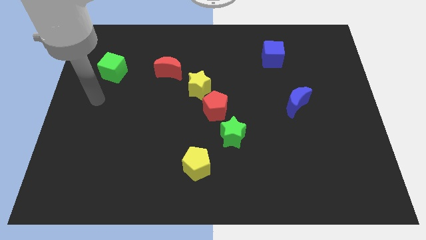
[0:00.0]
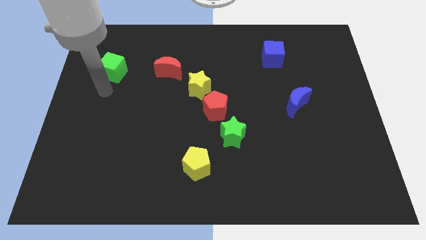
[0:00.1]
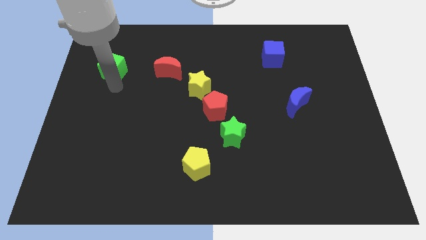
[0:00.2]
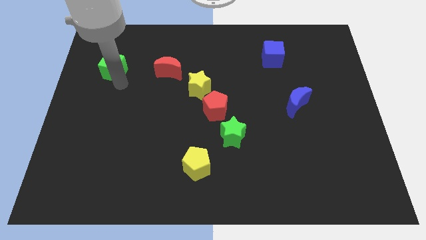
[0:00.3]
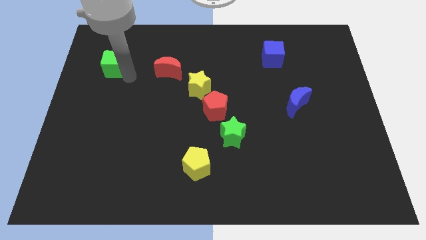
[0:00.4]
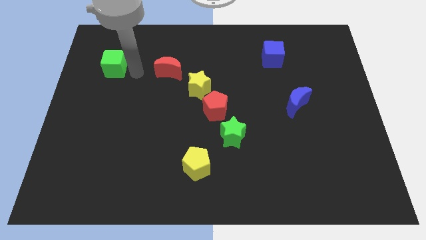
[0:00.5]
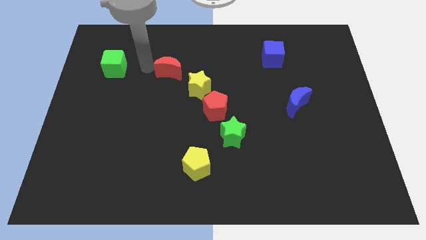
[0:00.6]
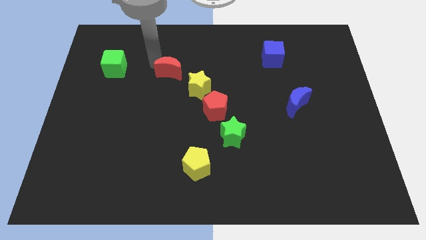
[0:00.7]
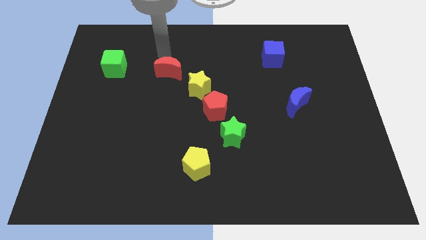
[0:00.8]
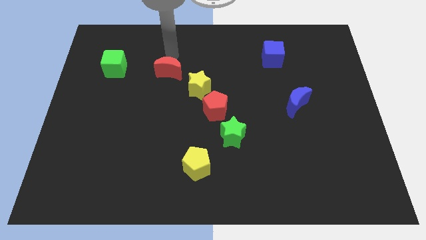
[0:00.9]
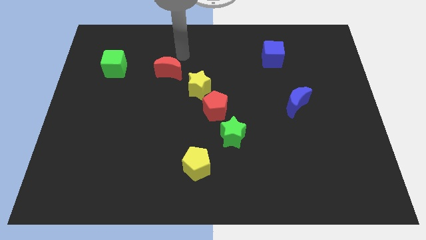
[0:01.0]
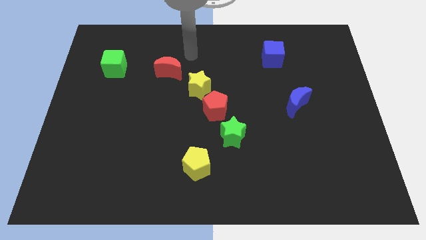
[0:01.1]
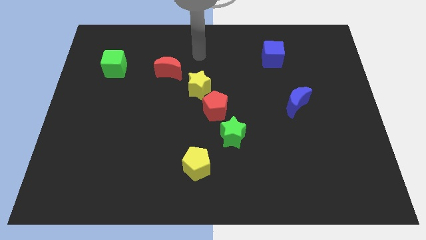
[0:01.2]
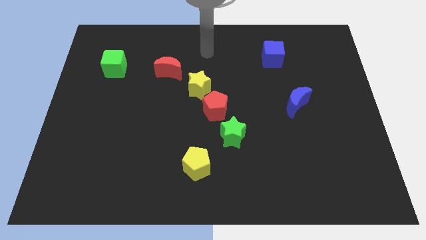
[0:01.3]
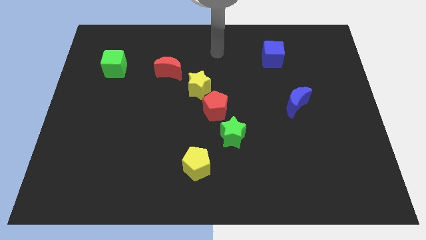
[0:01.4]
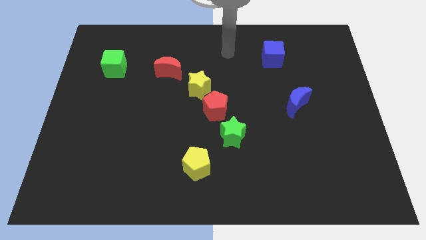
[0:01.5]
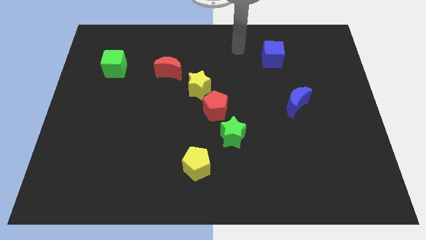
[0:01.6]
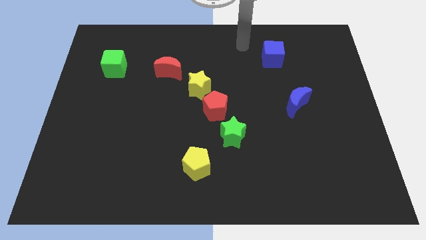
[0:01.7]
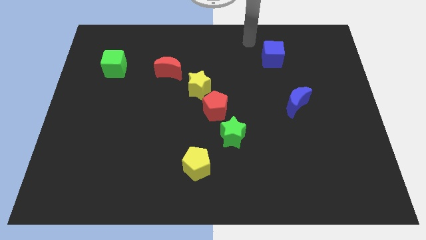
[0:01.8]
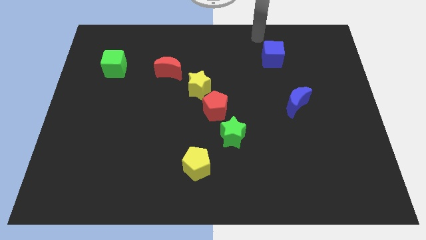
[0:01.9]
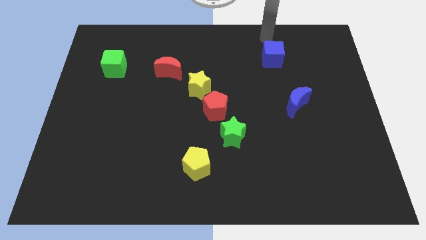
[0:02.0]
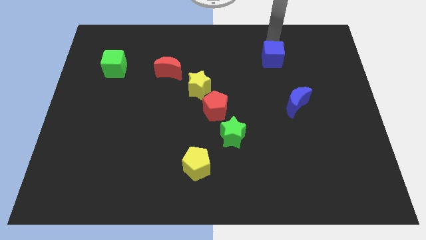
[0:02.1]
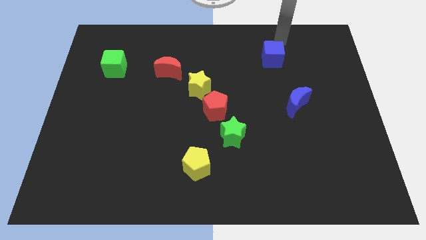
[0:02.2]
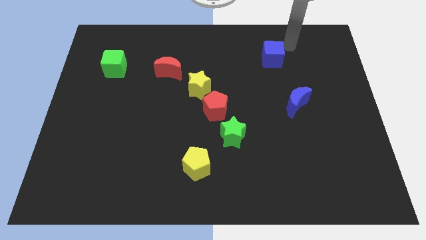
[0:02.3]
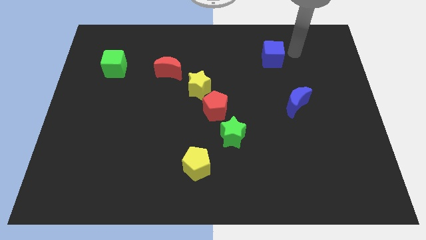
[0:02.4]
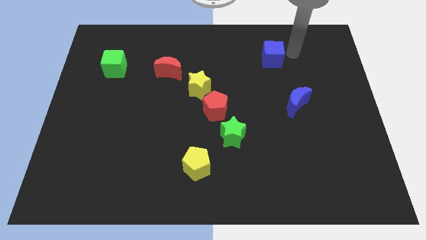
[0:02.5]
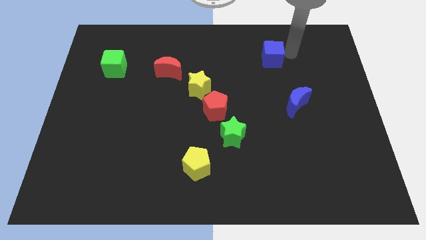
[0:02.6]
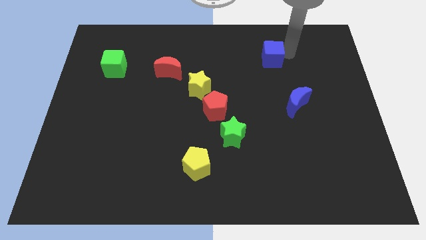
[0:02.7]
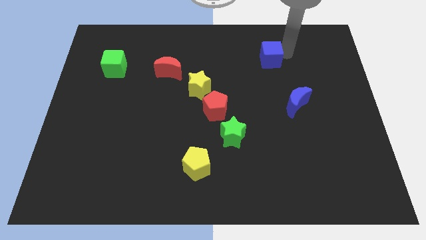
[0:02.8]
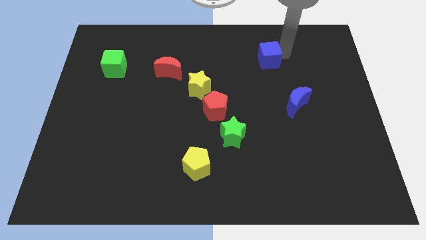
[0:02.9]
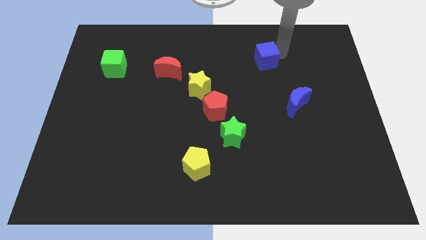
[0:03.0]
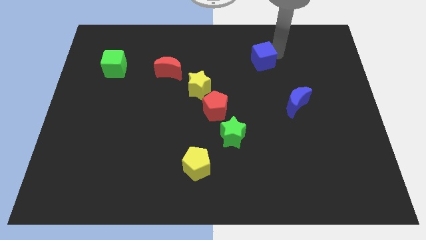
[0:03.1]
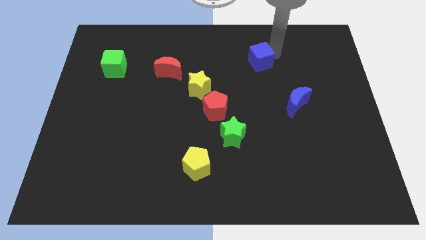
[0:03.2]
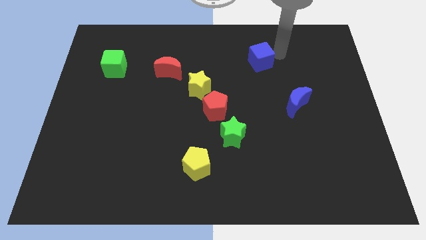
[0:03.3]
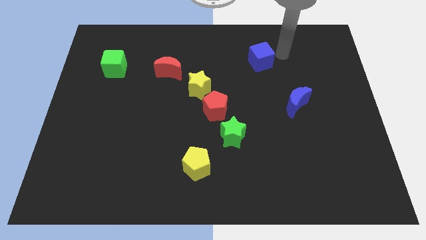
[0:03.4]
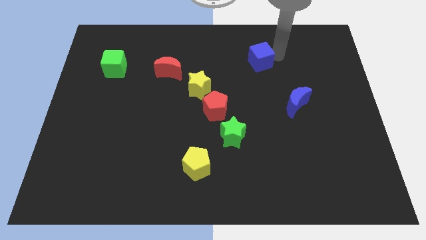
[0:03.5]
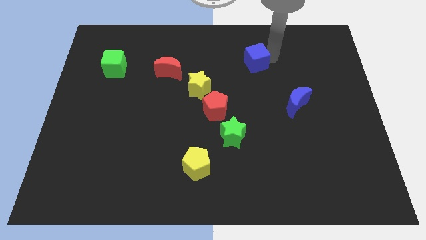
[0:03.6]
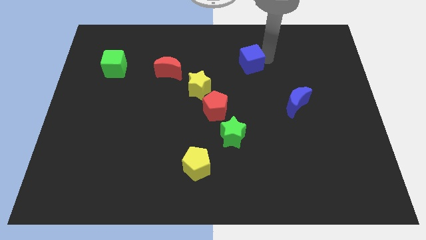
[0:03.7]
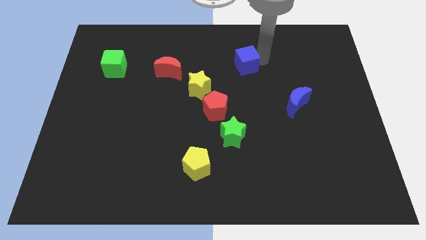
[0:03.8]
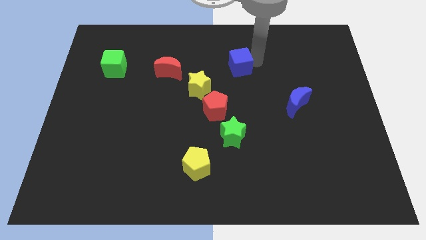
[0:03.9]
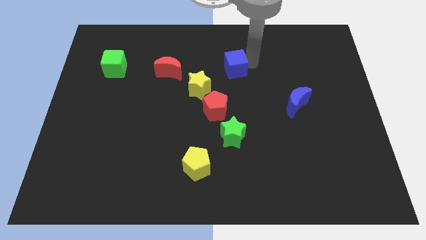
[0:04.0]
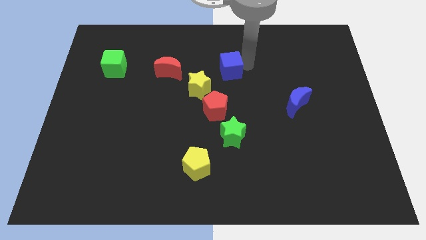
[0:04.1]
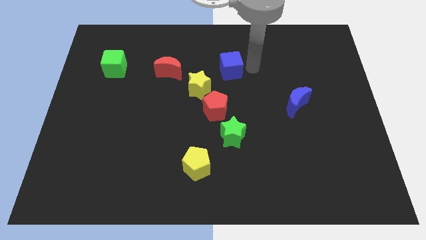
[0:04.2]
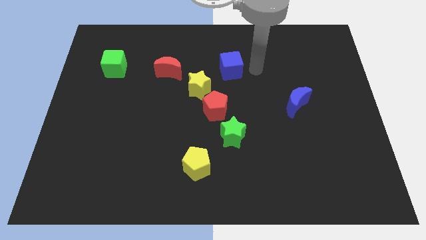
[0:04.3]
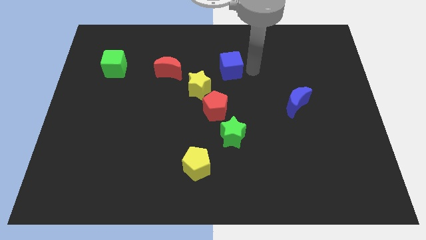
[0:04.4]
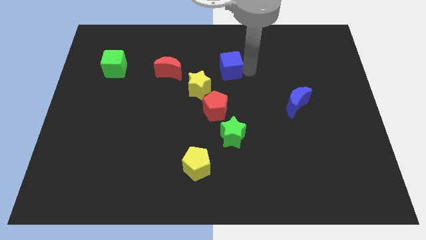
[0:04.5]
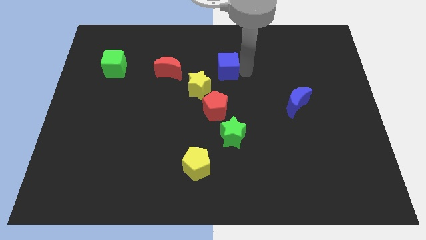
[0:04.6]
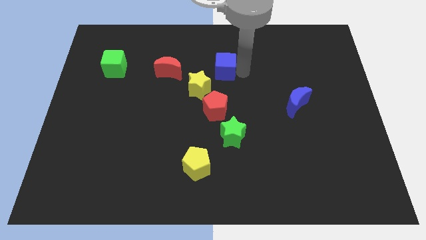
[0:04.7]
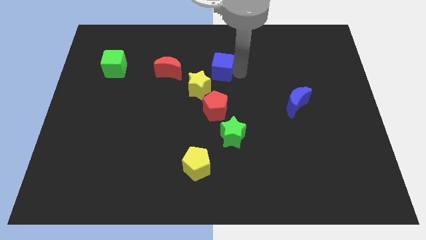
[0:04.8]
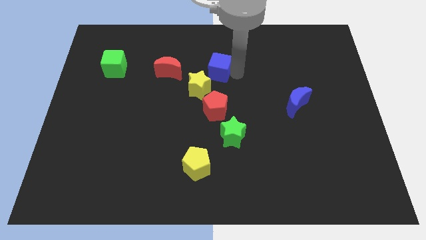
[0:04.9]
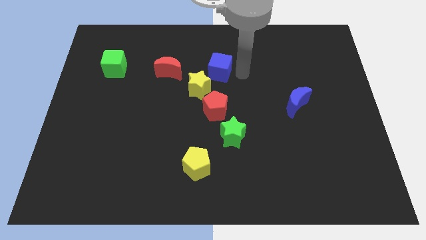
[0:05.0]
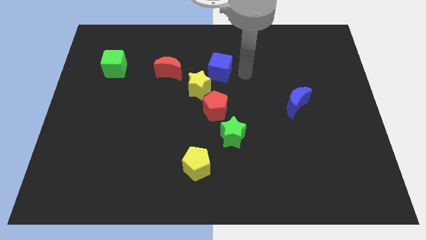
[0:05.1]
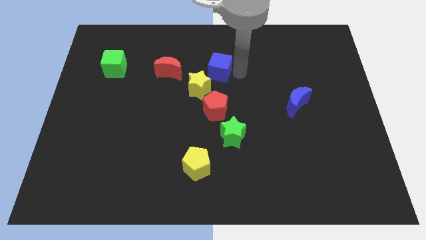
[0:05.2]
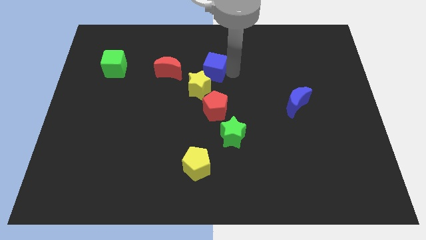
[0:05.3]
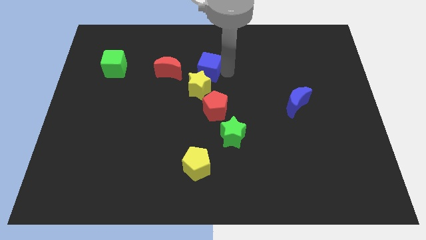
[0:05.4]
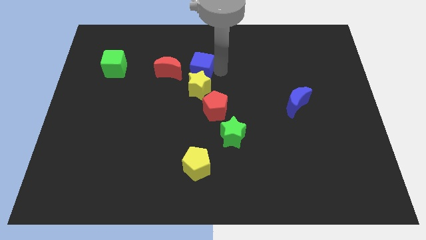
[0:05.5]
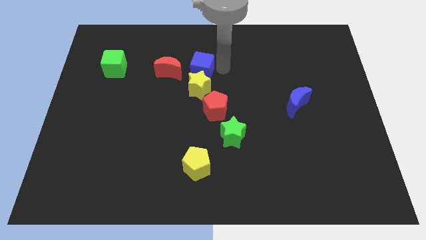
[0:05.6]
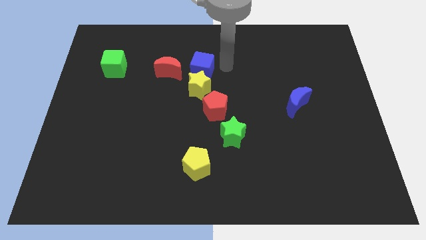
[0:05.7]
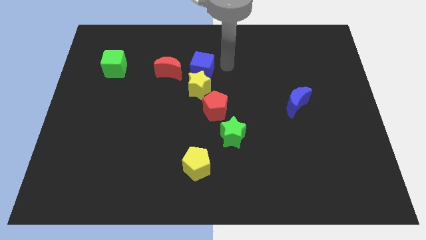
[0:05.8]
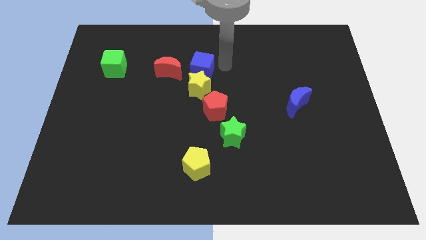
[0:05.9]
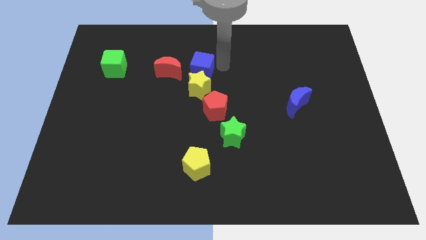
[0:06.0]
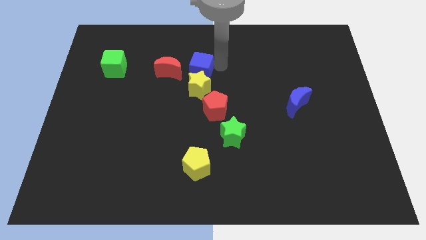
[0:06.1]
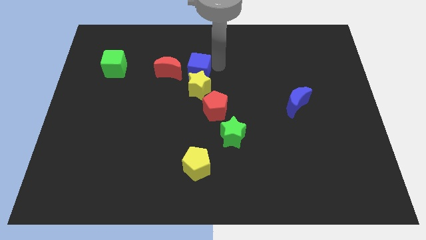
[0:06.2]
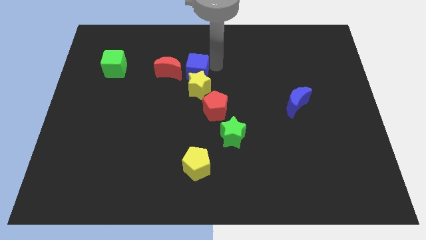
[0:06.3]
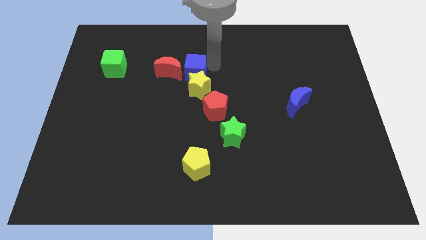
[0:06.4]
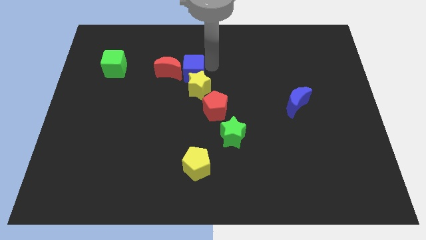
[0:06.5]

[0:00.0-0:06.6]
push the blue cube to the red moon

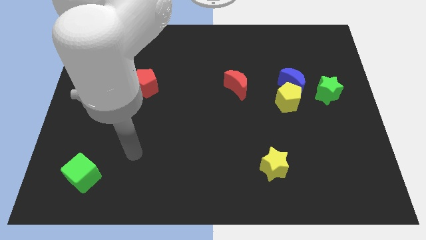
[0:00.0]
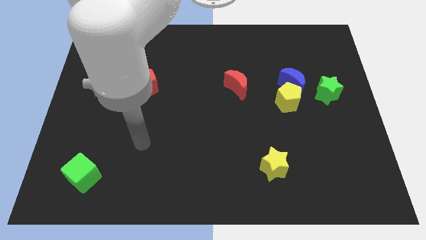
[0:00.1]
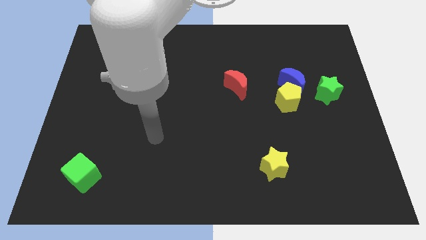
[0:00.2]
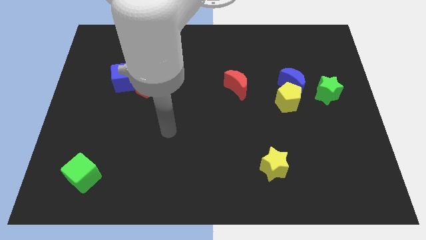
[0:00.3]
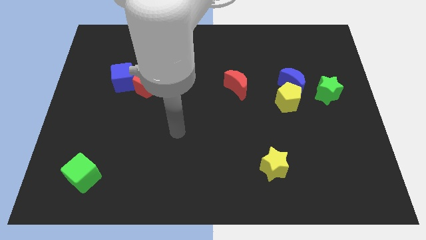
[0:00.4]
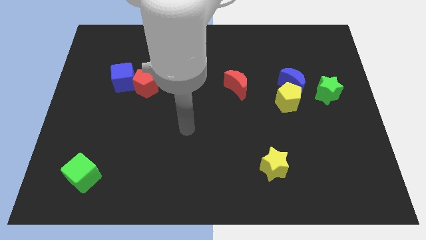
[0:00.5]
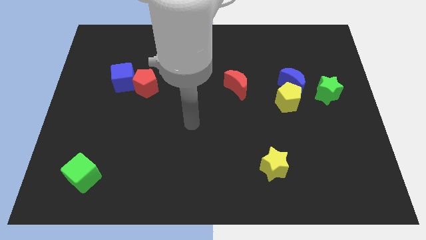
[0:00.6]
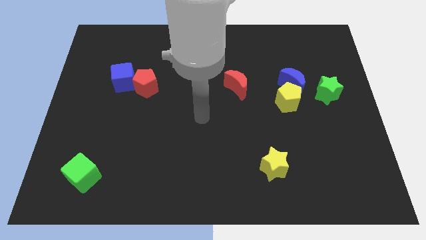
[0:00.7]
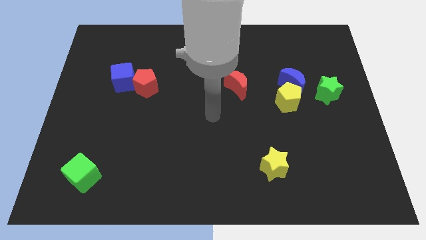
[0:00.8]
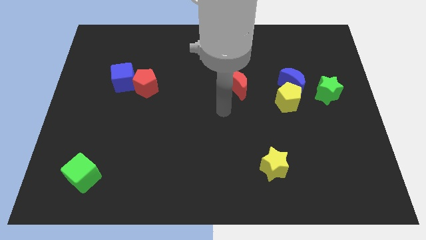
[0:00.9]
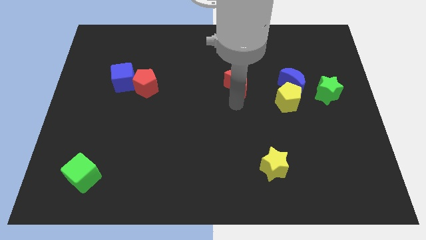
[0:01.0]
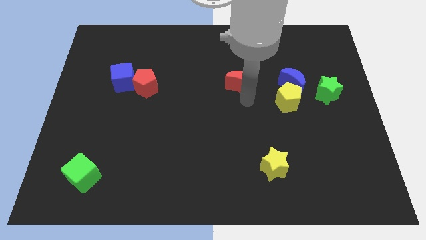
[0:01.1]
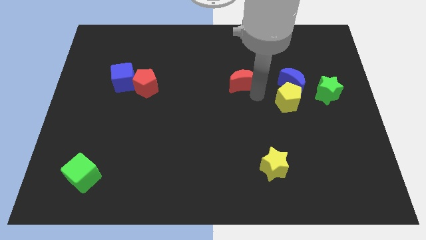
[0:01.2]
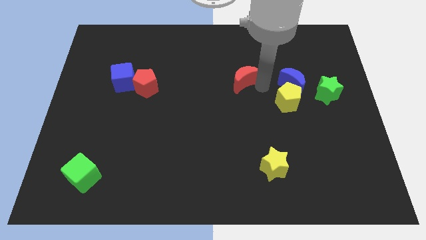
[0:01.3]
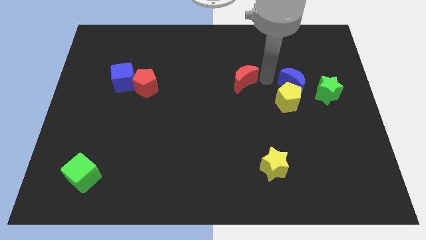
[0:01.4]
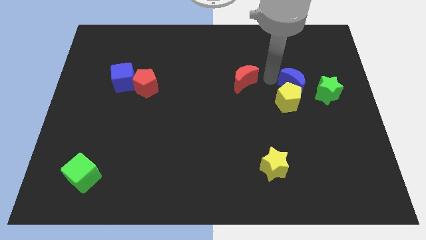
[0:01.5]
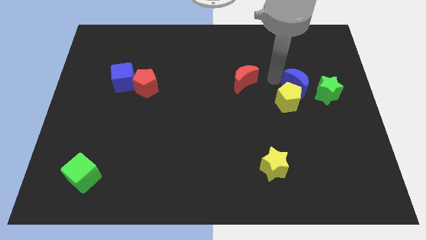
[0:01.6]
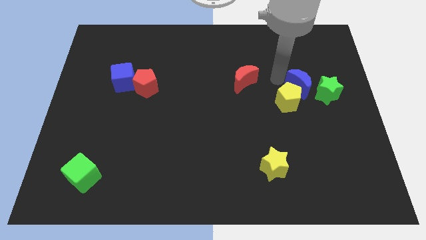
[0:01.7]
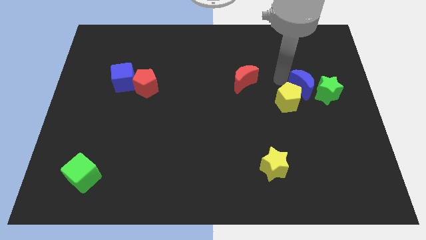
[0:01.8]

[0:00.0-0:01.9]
slide the blue moon close to the green star
